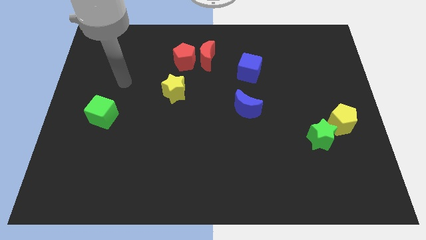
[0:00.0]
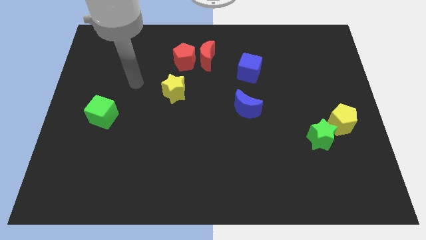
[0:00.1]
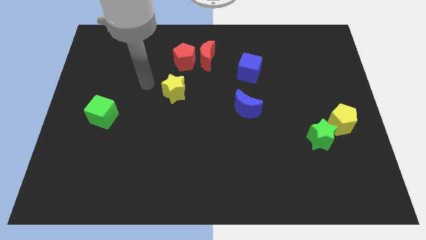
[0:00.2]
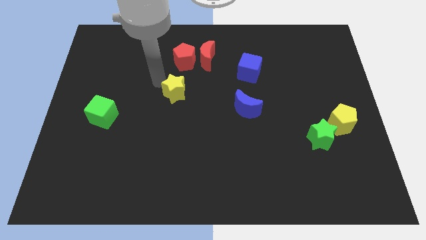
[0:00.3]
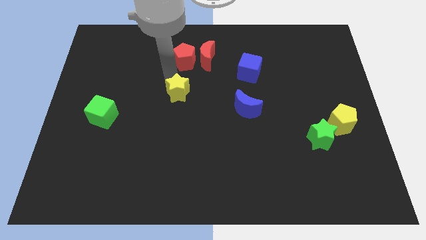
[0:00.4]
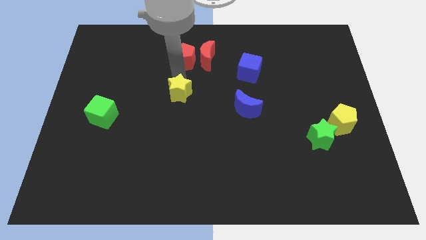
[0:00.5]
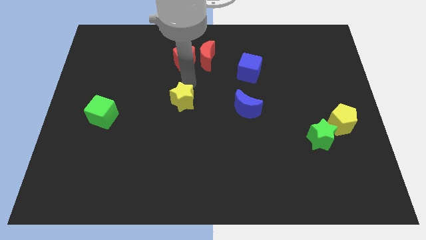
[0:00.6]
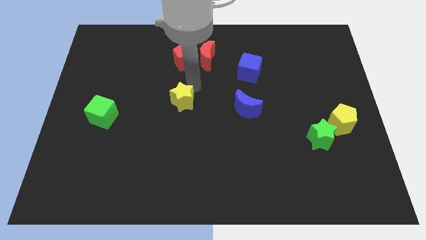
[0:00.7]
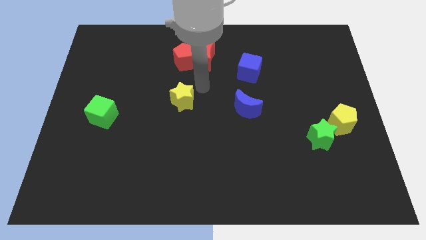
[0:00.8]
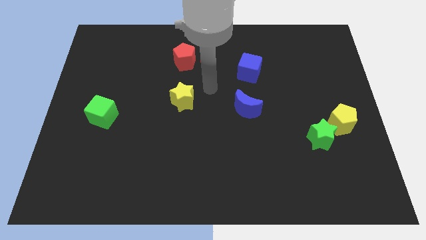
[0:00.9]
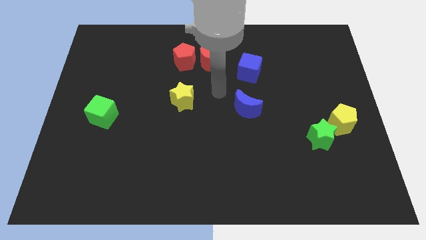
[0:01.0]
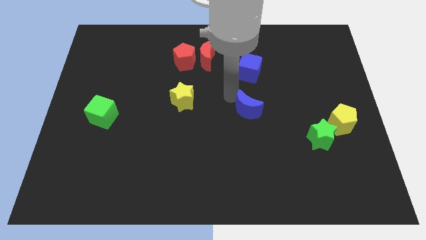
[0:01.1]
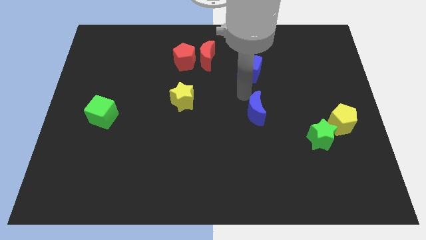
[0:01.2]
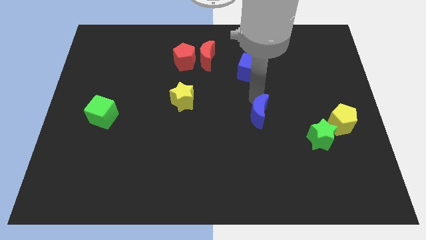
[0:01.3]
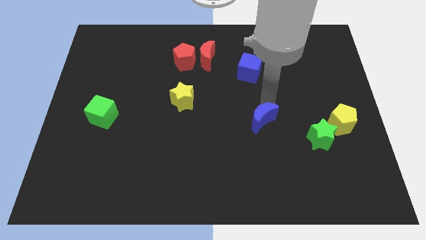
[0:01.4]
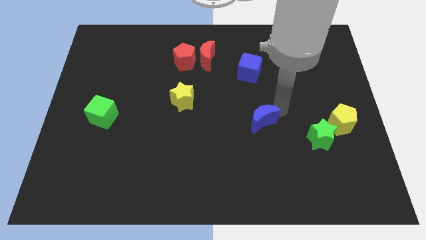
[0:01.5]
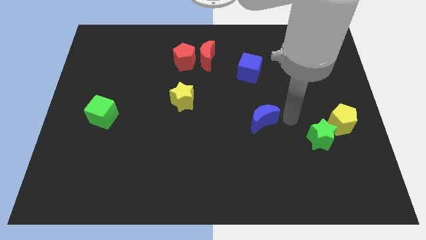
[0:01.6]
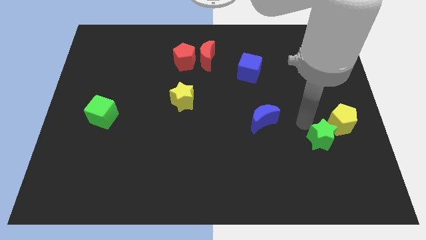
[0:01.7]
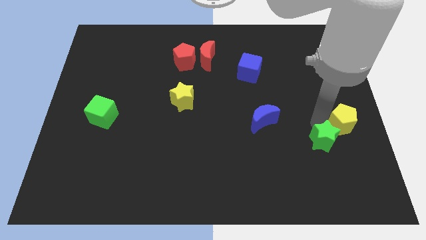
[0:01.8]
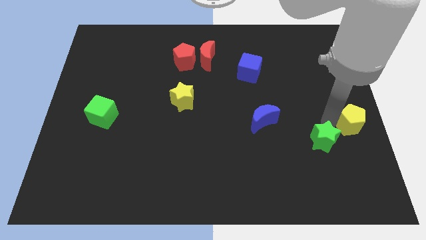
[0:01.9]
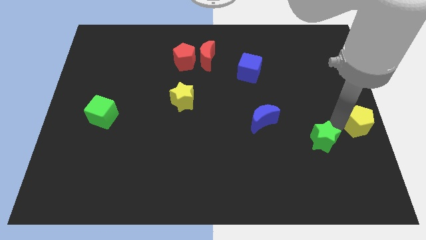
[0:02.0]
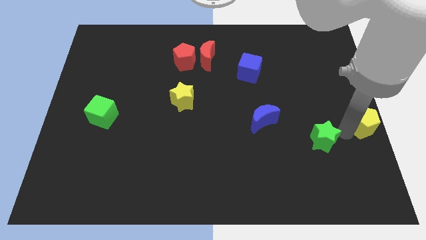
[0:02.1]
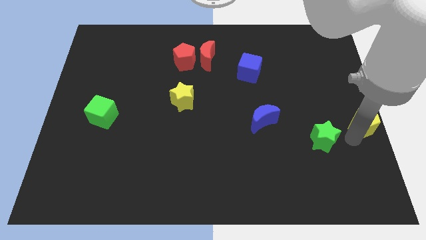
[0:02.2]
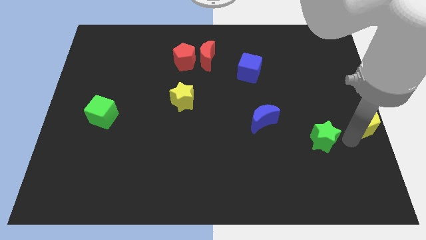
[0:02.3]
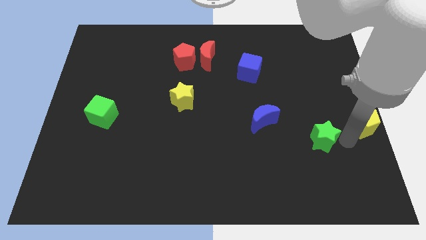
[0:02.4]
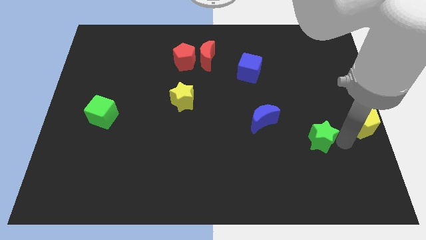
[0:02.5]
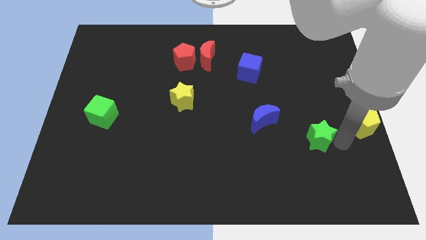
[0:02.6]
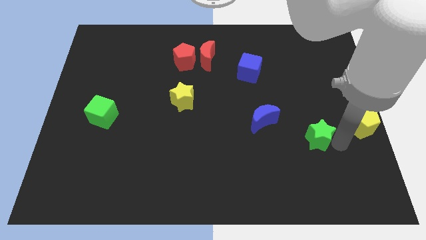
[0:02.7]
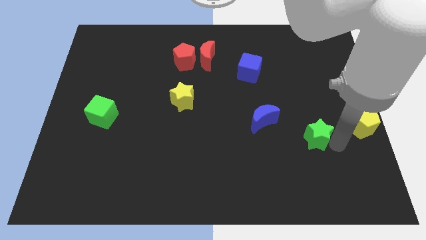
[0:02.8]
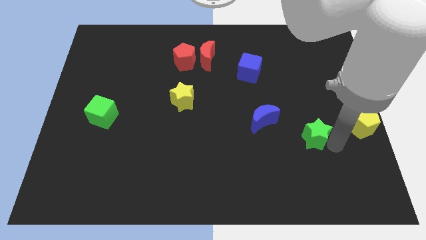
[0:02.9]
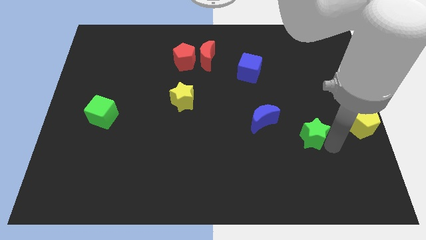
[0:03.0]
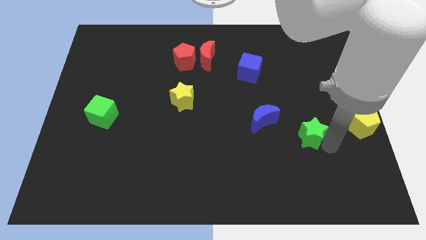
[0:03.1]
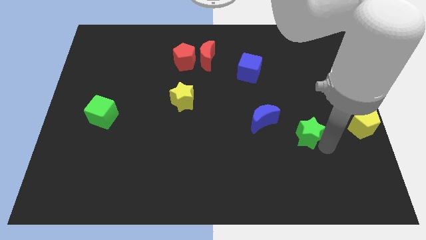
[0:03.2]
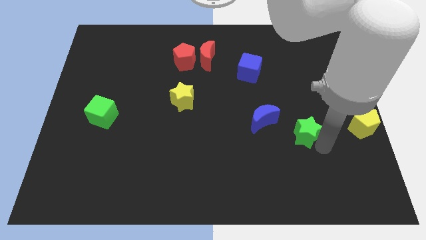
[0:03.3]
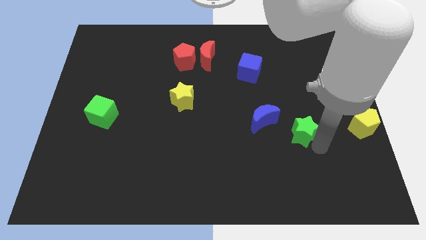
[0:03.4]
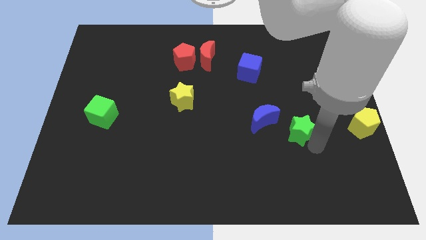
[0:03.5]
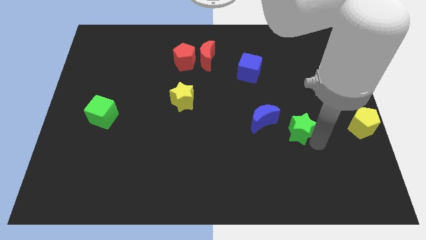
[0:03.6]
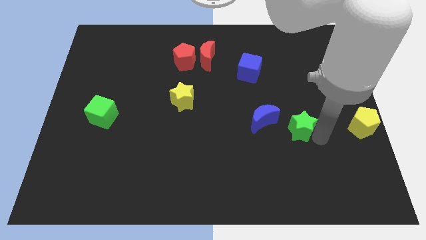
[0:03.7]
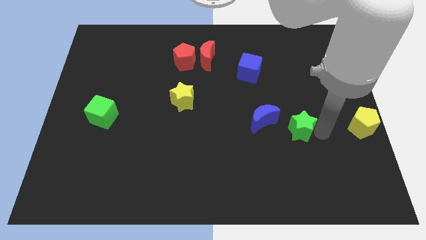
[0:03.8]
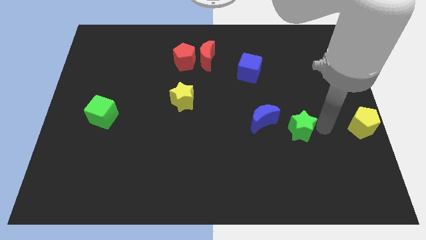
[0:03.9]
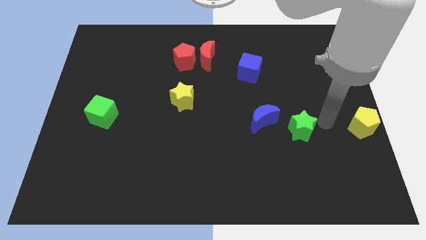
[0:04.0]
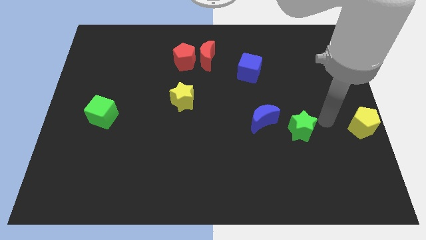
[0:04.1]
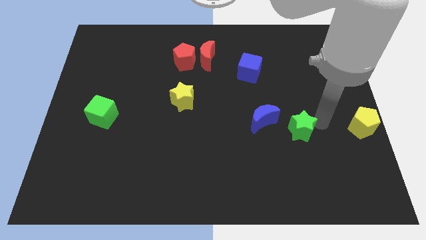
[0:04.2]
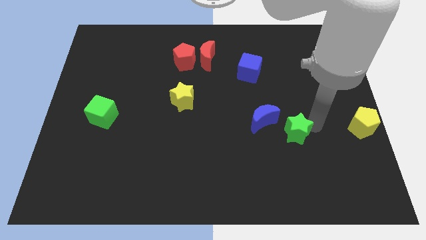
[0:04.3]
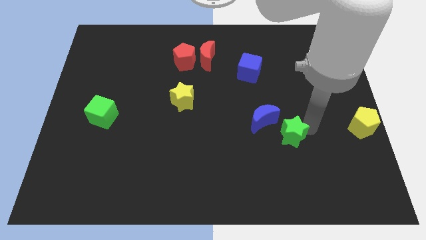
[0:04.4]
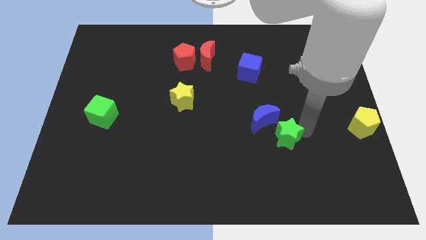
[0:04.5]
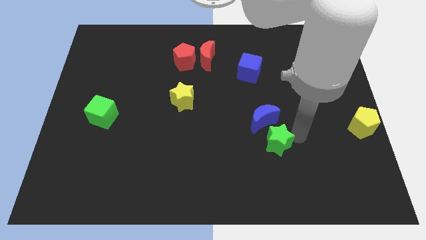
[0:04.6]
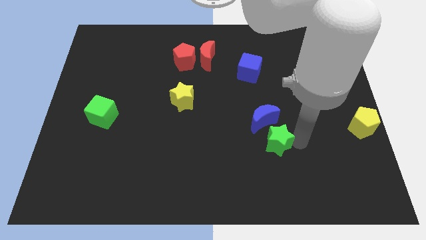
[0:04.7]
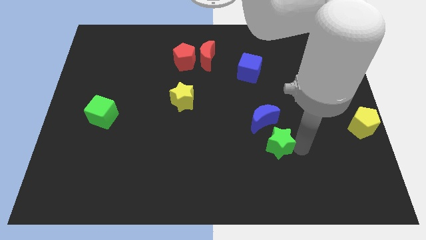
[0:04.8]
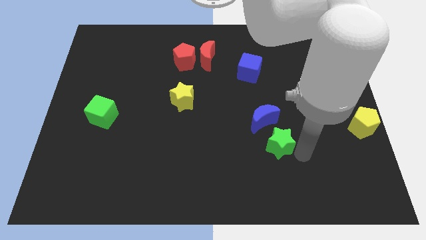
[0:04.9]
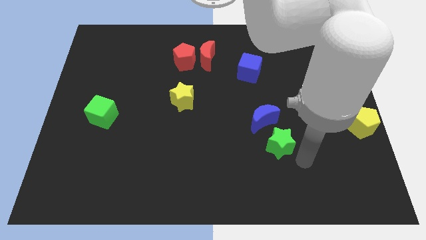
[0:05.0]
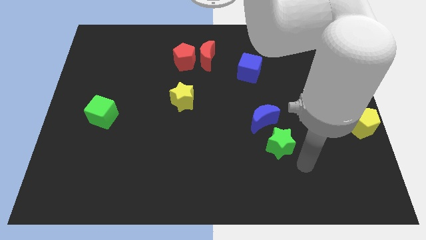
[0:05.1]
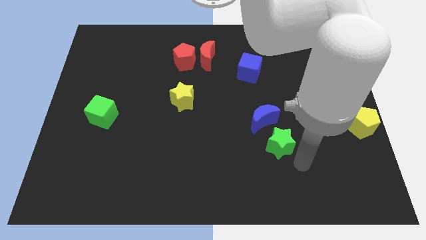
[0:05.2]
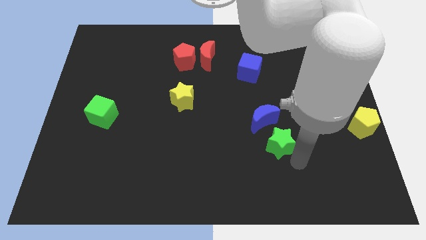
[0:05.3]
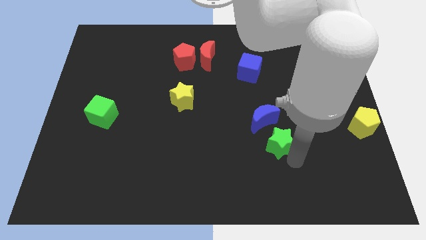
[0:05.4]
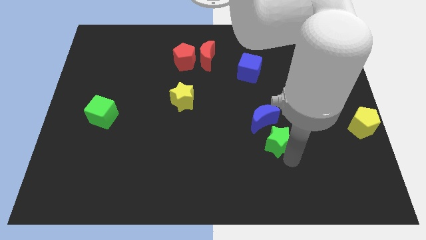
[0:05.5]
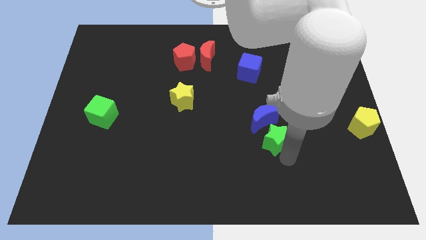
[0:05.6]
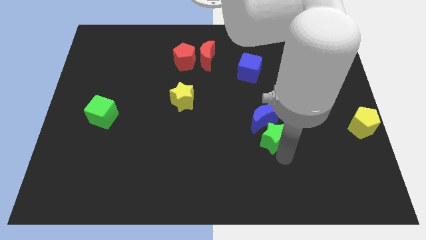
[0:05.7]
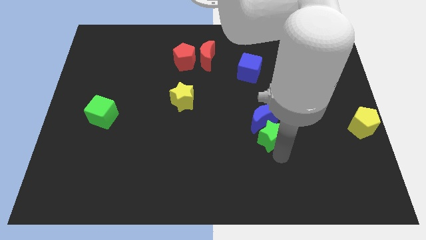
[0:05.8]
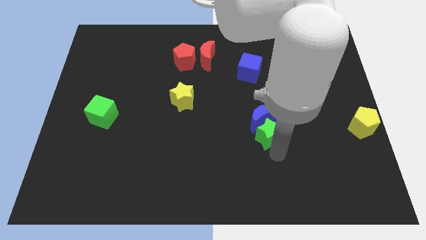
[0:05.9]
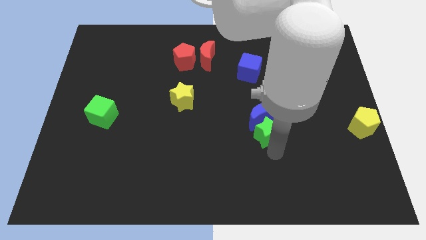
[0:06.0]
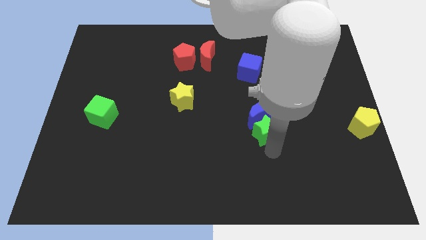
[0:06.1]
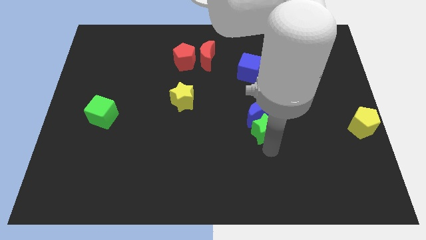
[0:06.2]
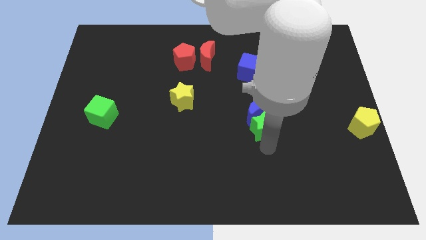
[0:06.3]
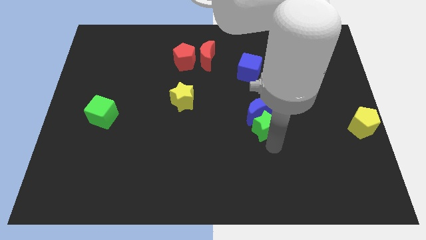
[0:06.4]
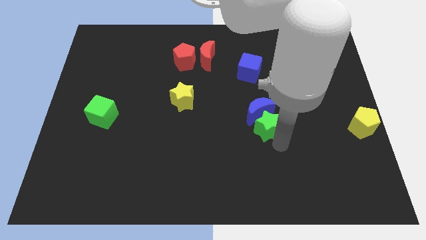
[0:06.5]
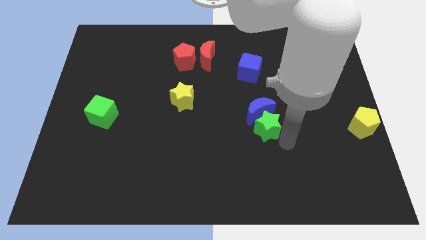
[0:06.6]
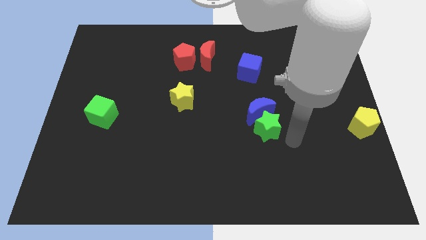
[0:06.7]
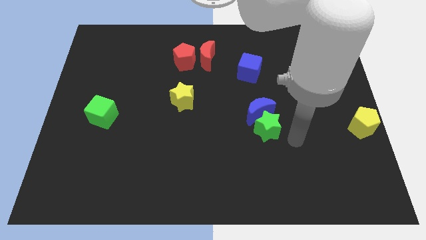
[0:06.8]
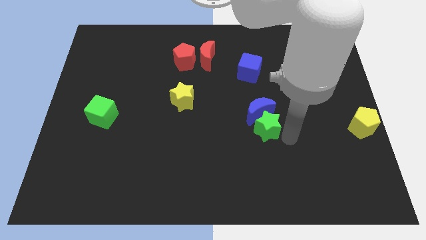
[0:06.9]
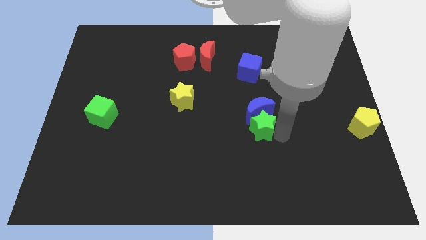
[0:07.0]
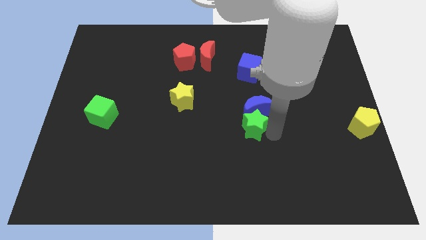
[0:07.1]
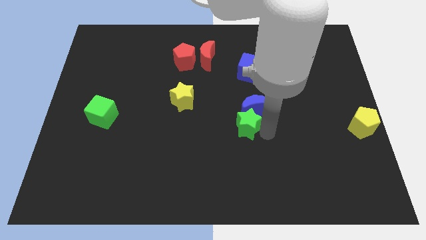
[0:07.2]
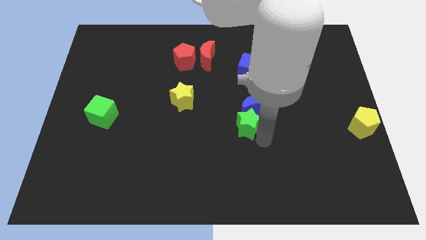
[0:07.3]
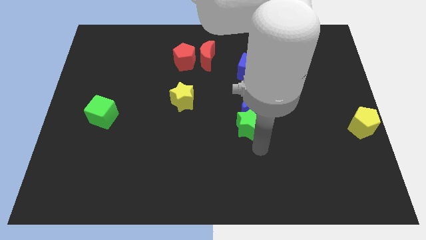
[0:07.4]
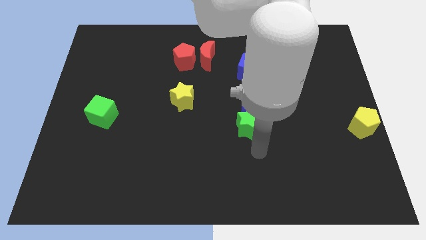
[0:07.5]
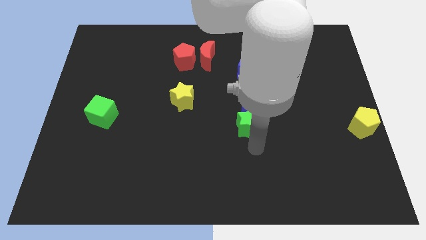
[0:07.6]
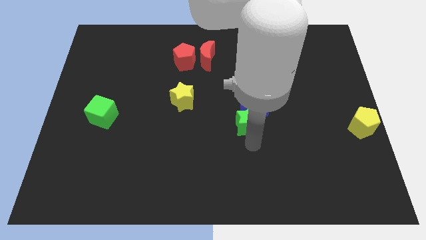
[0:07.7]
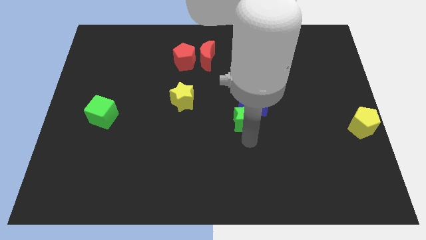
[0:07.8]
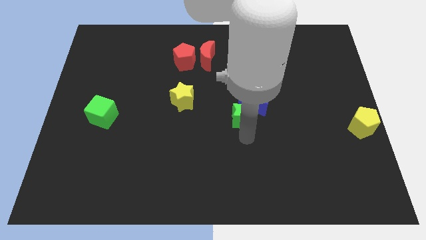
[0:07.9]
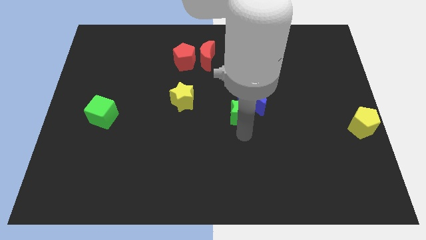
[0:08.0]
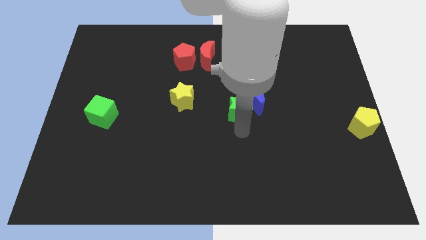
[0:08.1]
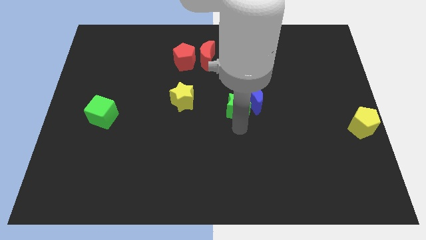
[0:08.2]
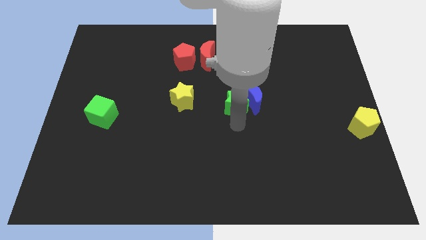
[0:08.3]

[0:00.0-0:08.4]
push the green star diagonally up and to the left of the blue moon
